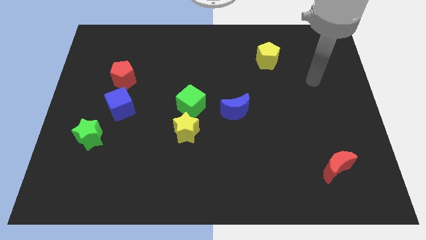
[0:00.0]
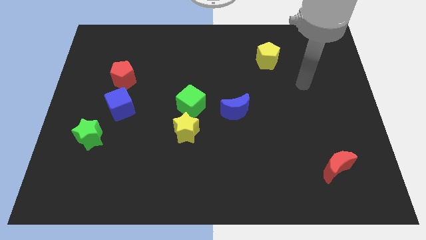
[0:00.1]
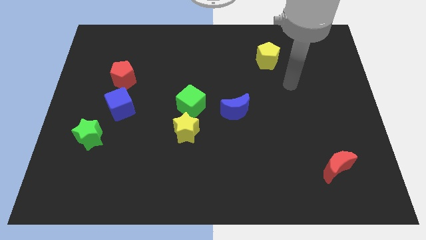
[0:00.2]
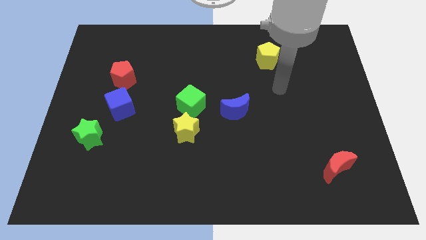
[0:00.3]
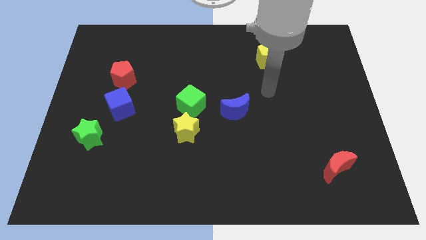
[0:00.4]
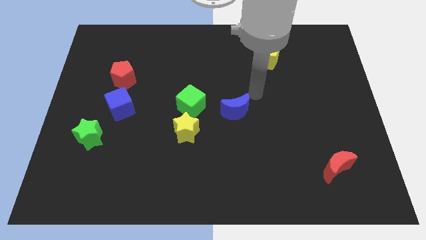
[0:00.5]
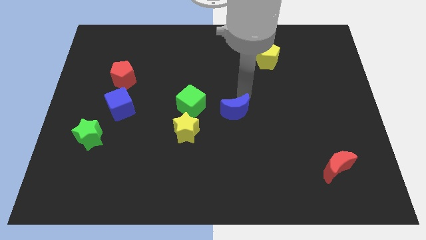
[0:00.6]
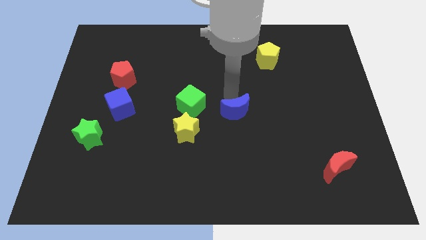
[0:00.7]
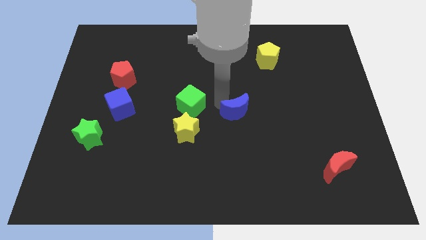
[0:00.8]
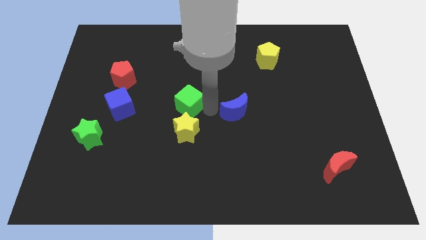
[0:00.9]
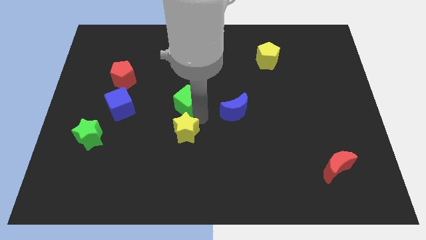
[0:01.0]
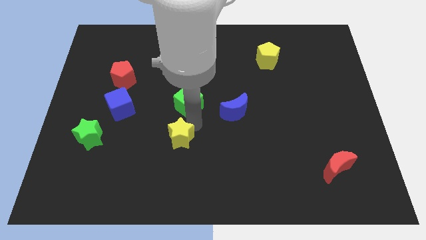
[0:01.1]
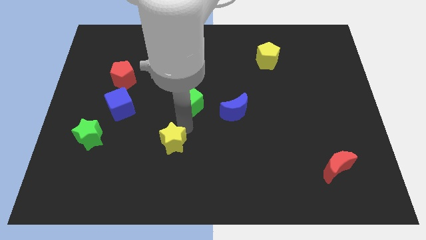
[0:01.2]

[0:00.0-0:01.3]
pull the green cube apart from the yellow star

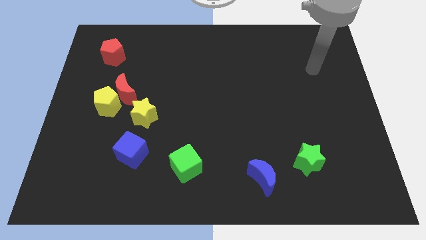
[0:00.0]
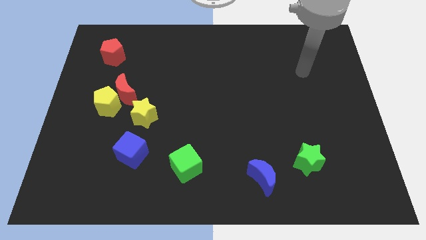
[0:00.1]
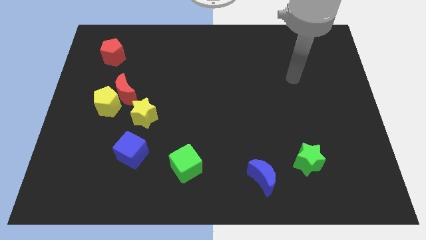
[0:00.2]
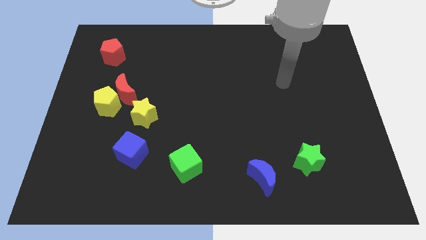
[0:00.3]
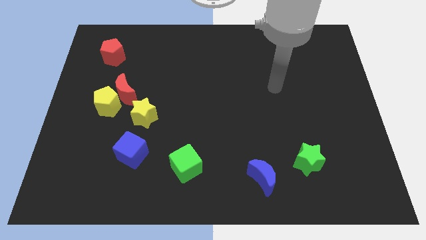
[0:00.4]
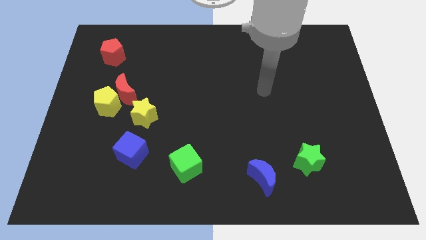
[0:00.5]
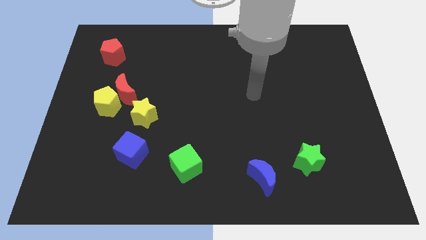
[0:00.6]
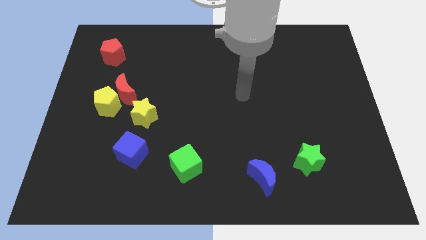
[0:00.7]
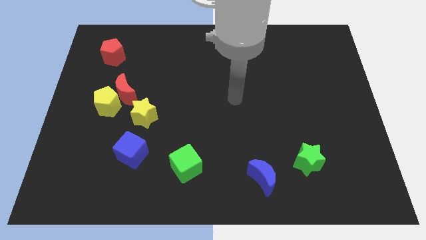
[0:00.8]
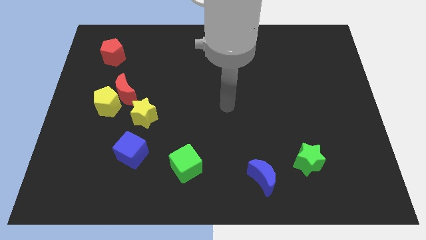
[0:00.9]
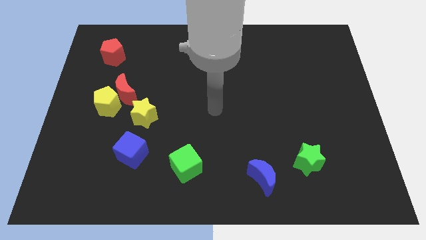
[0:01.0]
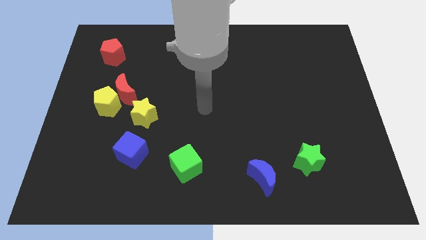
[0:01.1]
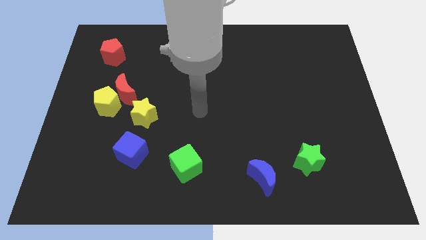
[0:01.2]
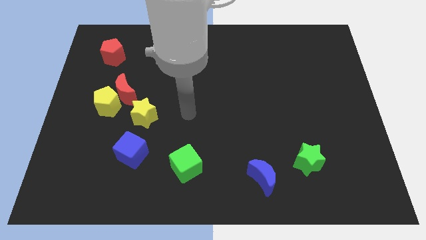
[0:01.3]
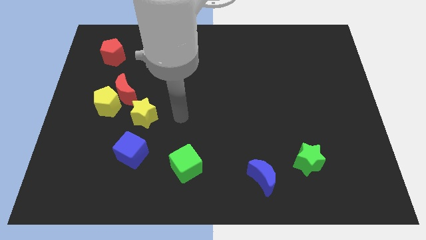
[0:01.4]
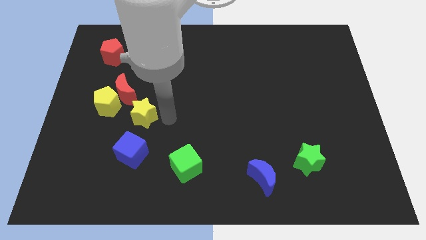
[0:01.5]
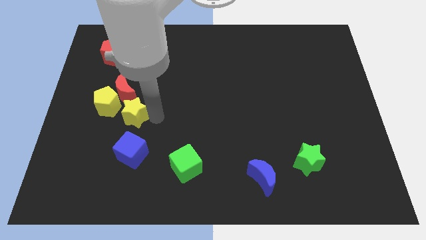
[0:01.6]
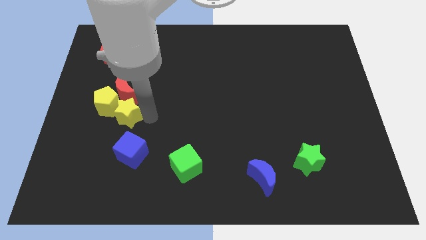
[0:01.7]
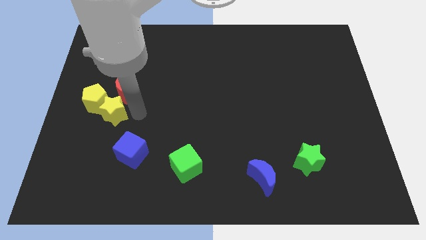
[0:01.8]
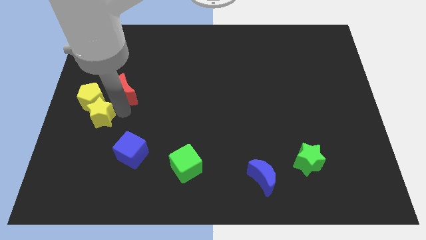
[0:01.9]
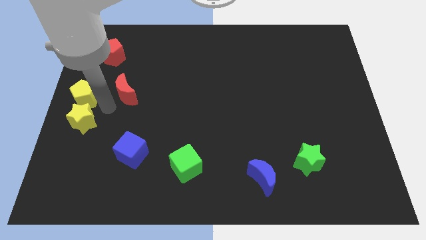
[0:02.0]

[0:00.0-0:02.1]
separate the red moon from the yellow pentagon and yellow star

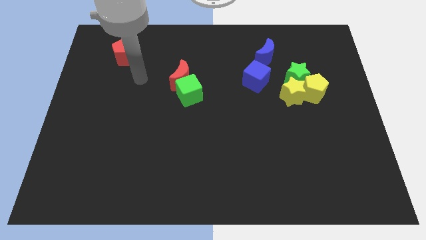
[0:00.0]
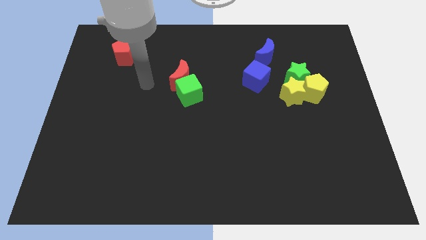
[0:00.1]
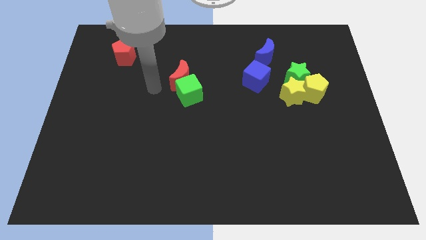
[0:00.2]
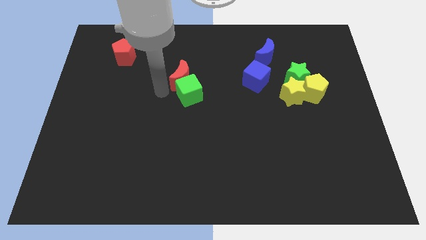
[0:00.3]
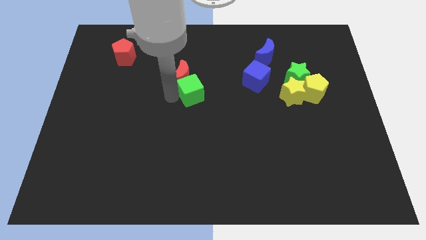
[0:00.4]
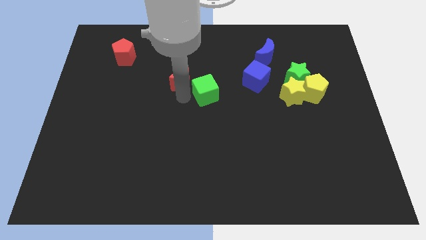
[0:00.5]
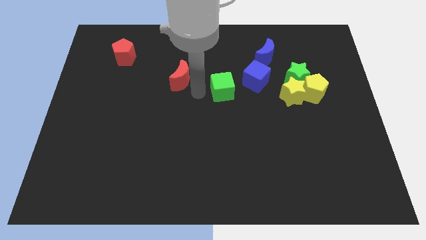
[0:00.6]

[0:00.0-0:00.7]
move the red moon away from the green cube

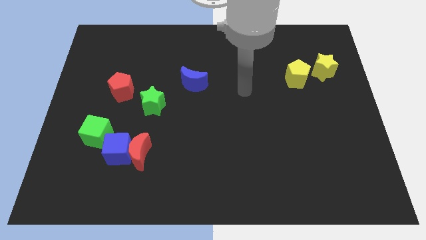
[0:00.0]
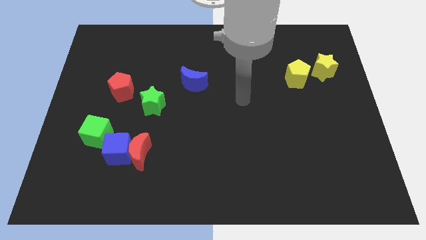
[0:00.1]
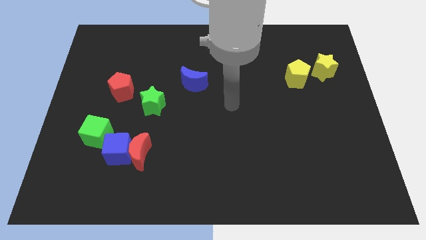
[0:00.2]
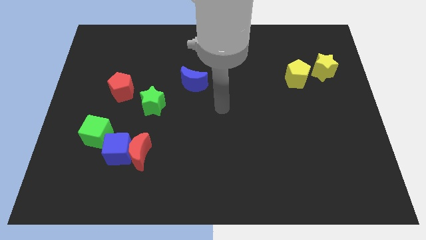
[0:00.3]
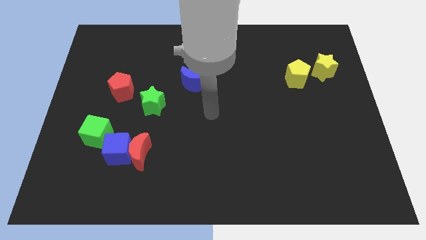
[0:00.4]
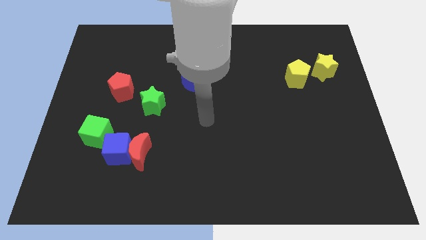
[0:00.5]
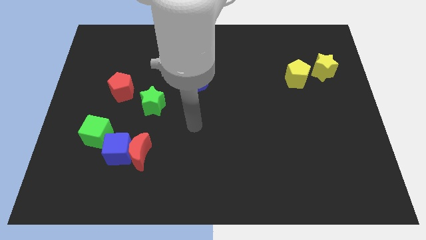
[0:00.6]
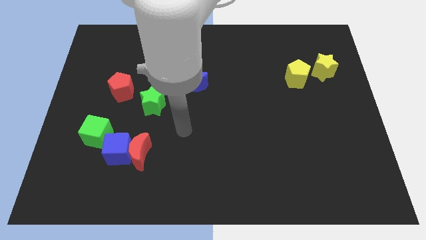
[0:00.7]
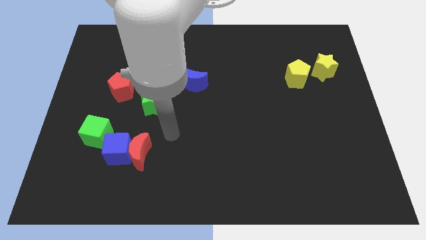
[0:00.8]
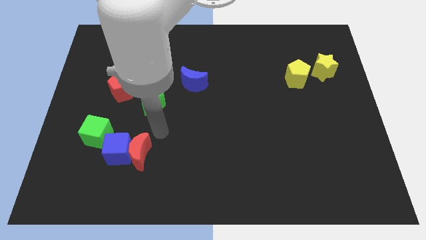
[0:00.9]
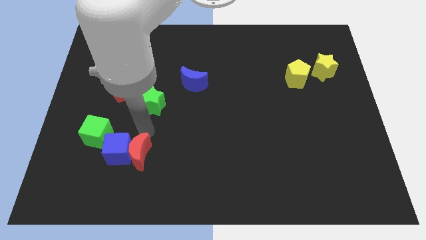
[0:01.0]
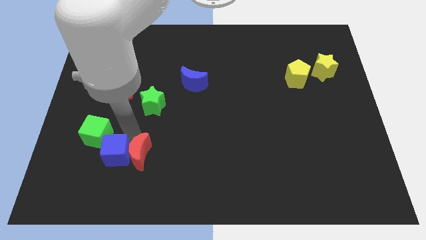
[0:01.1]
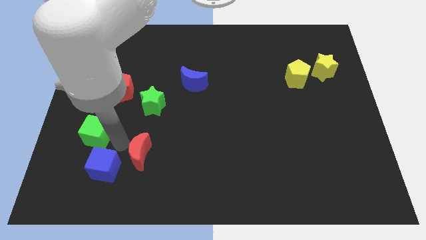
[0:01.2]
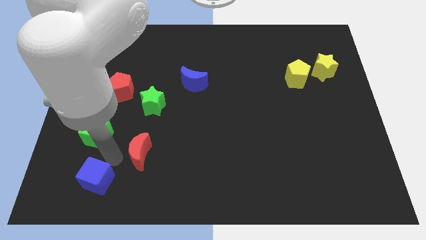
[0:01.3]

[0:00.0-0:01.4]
separate the red moon from the blue cube

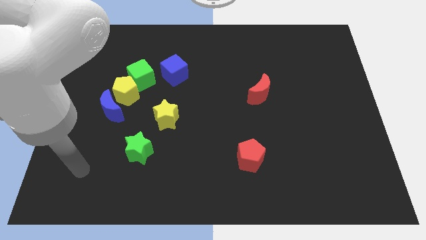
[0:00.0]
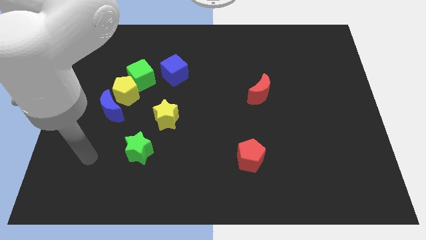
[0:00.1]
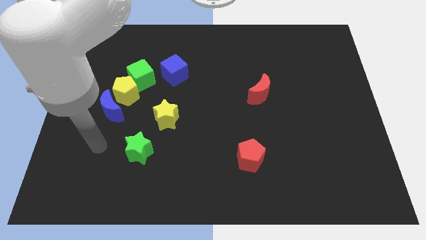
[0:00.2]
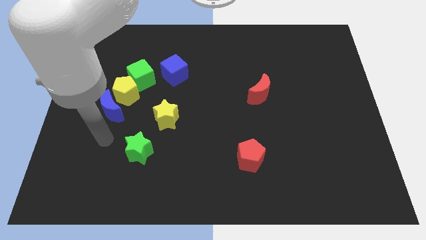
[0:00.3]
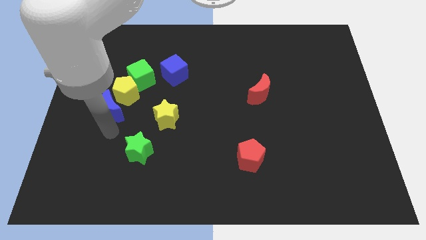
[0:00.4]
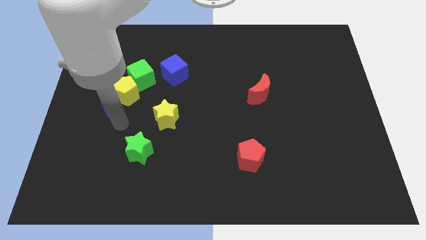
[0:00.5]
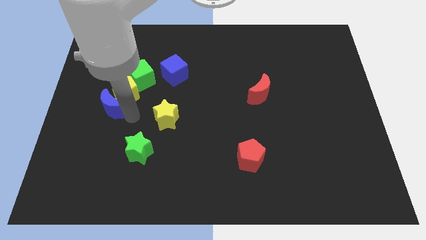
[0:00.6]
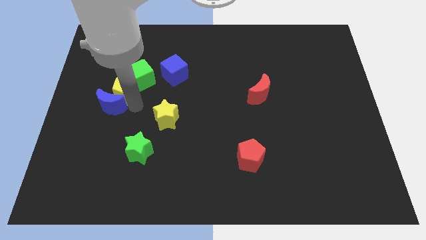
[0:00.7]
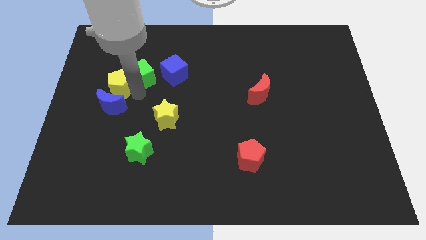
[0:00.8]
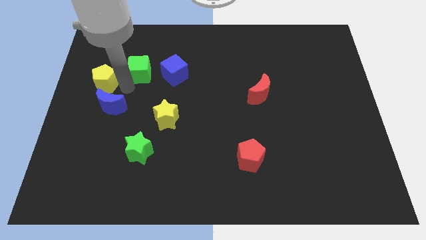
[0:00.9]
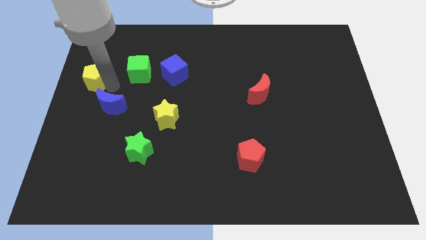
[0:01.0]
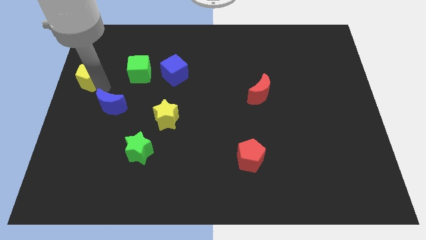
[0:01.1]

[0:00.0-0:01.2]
pull the blue moon apart from the yellow pentagon

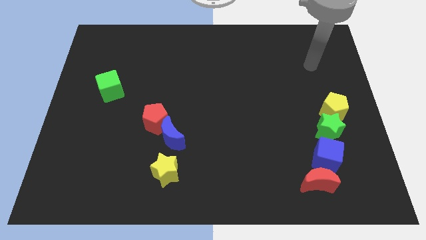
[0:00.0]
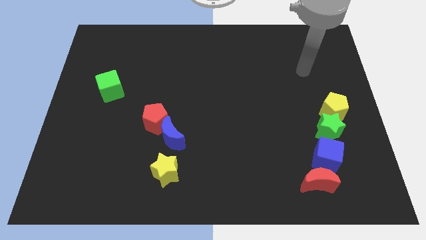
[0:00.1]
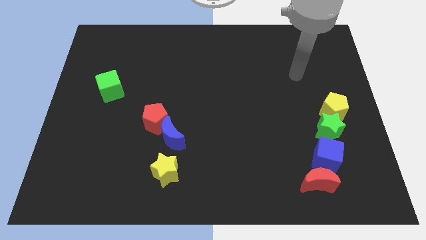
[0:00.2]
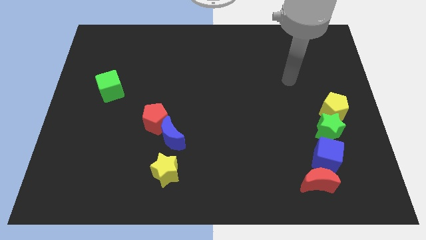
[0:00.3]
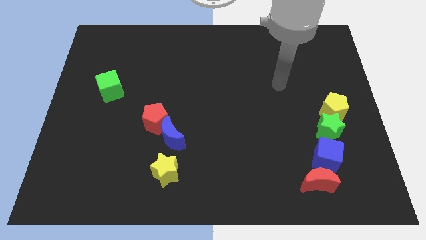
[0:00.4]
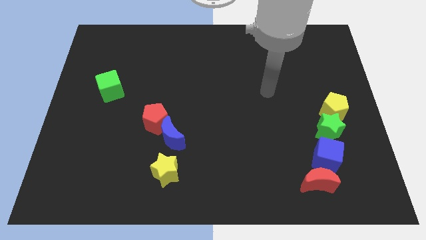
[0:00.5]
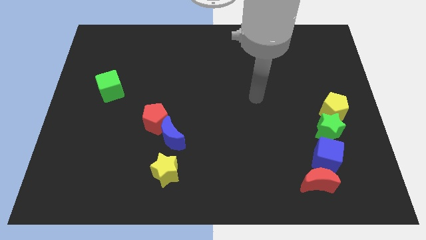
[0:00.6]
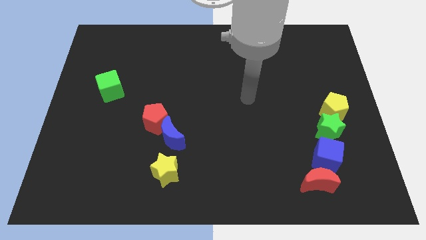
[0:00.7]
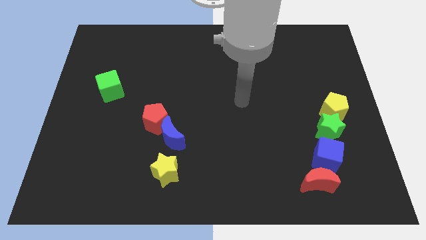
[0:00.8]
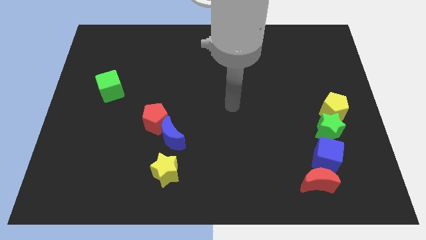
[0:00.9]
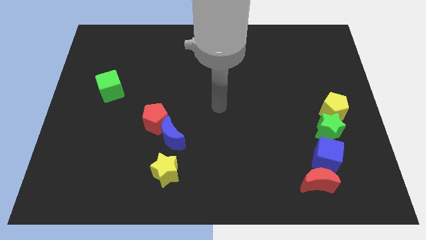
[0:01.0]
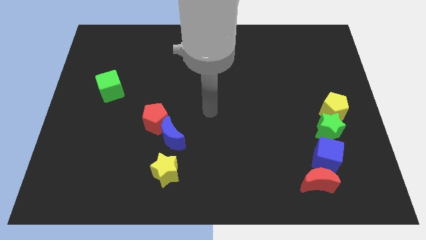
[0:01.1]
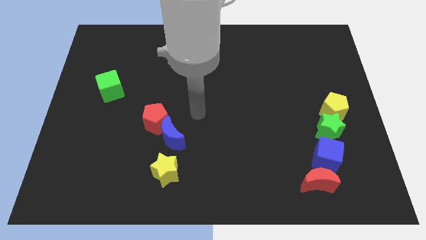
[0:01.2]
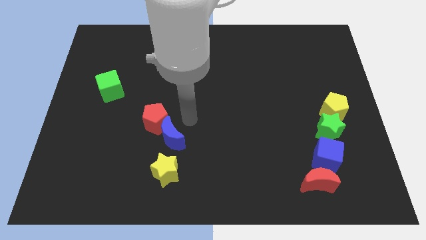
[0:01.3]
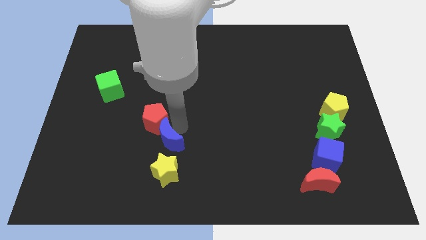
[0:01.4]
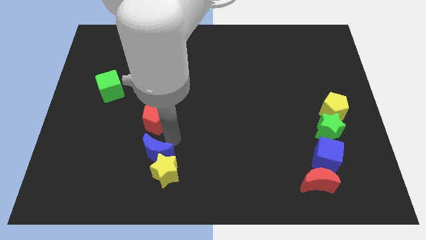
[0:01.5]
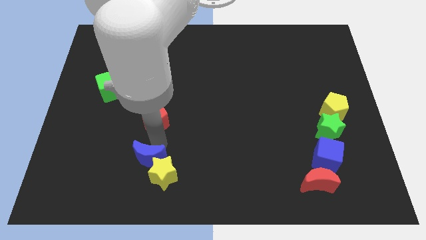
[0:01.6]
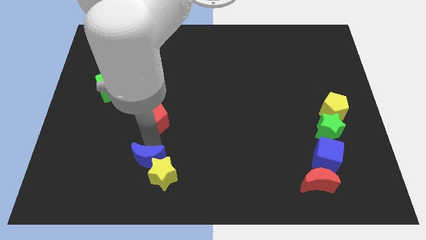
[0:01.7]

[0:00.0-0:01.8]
move the red pentagon away from the blue moon

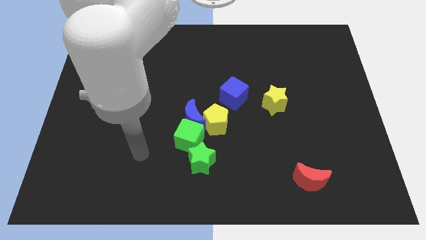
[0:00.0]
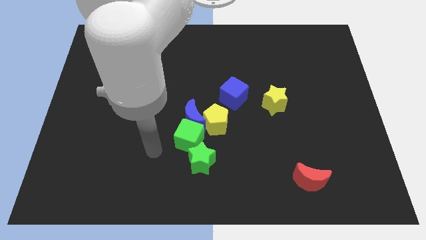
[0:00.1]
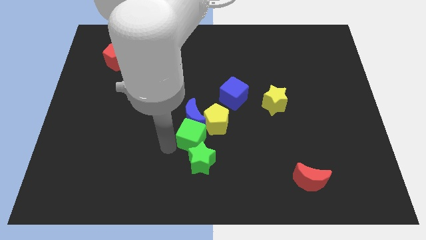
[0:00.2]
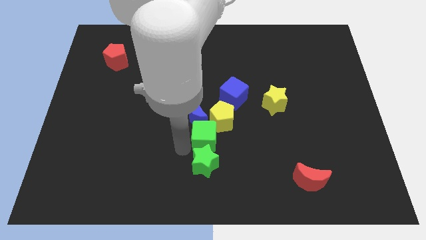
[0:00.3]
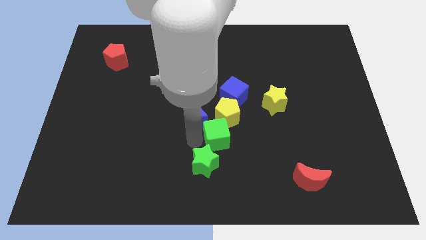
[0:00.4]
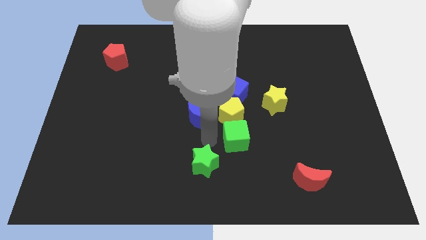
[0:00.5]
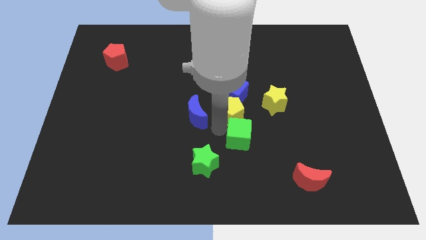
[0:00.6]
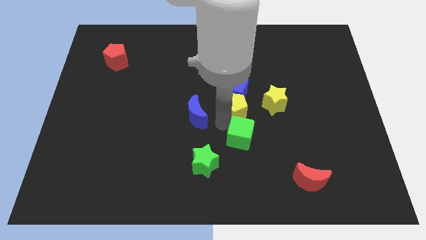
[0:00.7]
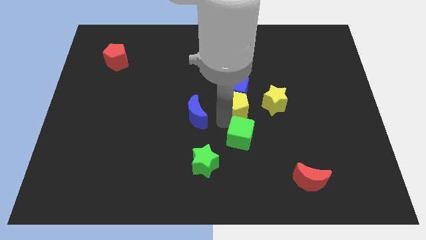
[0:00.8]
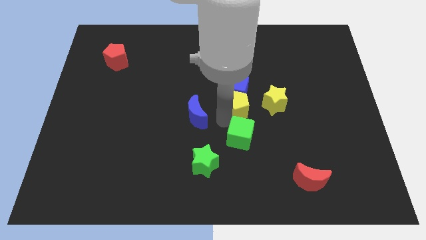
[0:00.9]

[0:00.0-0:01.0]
pull the blue moon apart from the yellow pentagon and green cube
